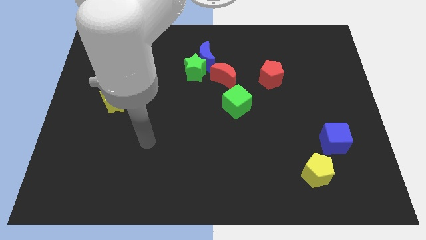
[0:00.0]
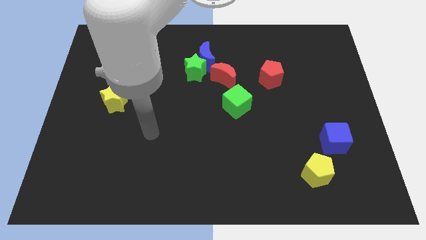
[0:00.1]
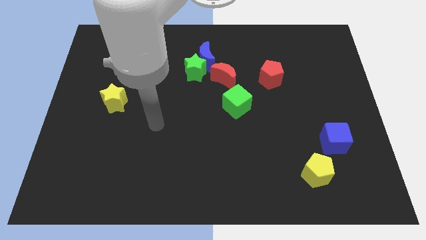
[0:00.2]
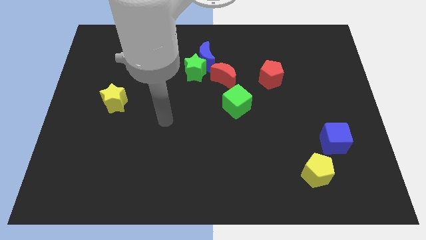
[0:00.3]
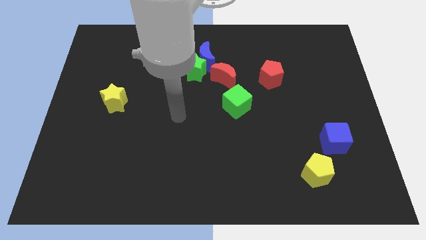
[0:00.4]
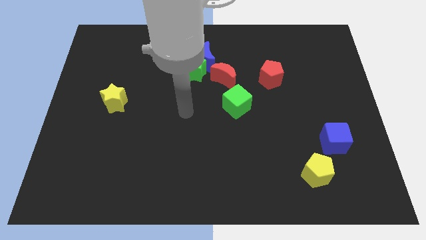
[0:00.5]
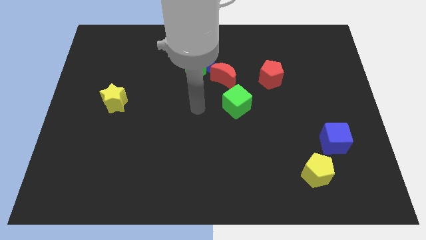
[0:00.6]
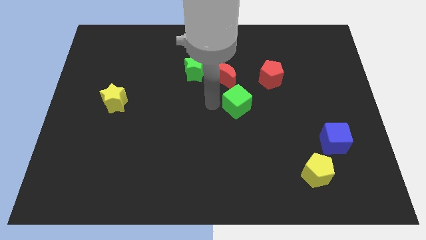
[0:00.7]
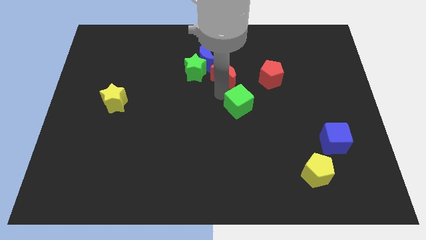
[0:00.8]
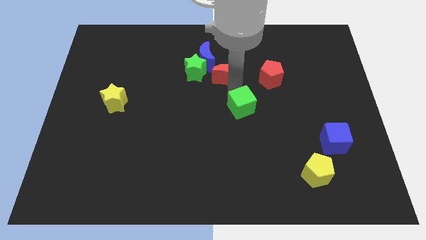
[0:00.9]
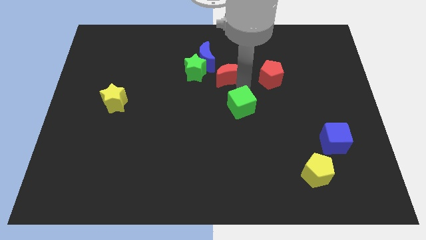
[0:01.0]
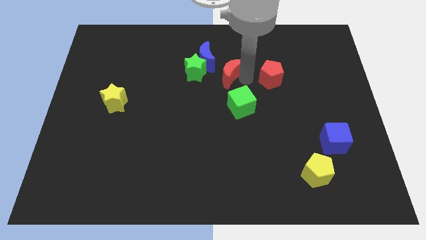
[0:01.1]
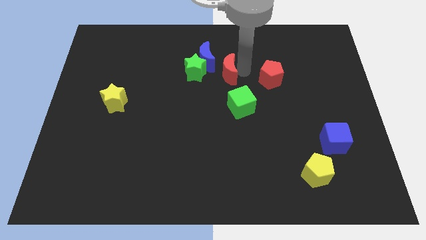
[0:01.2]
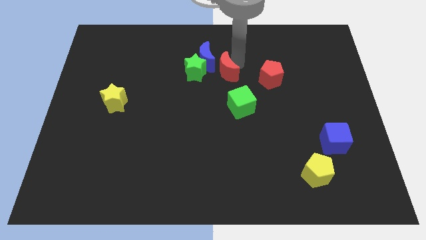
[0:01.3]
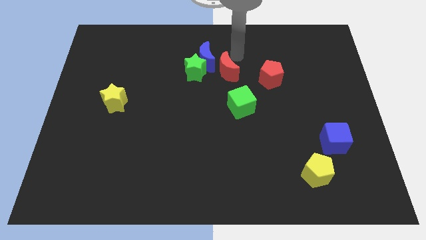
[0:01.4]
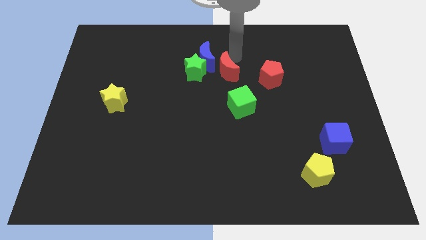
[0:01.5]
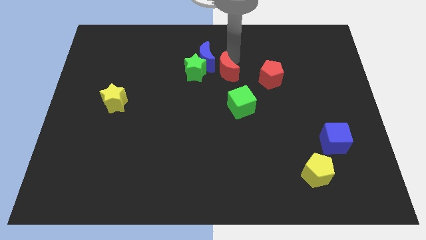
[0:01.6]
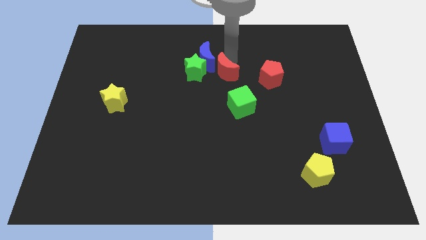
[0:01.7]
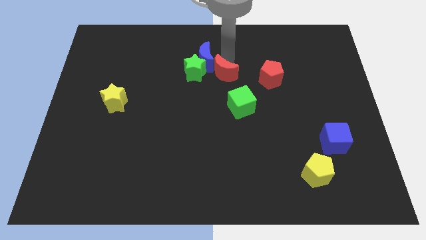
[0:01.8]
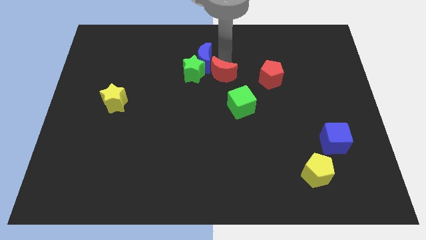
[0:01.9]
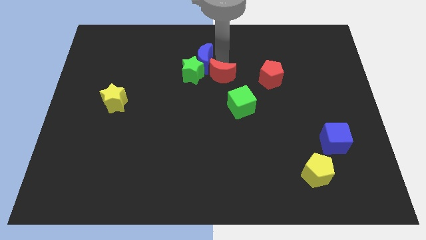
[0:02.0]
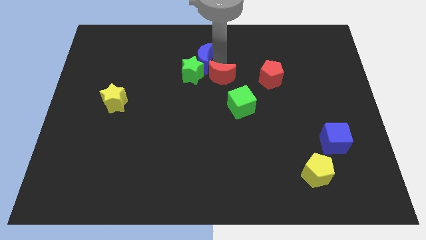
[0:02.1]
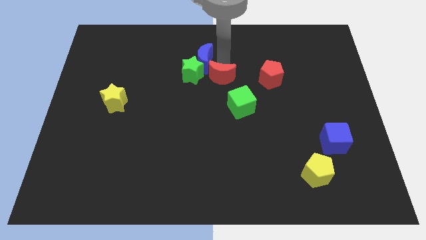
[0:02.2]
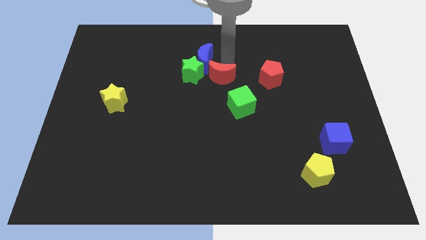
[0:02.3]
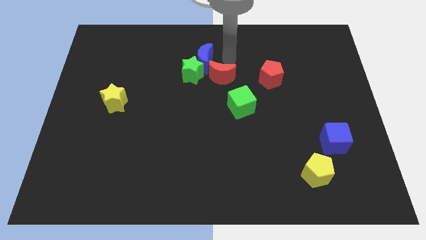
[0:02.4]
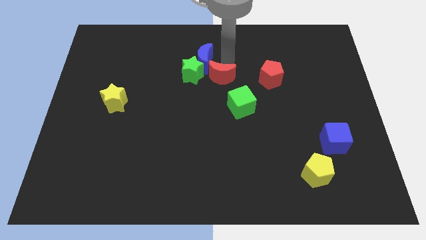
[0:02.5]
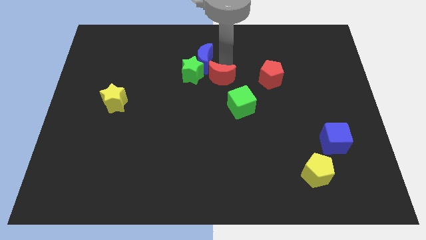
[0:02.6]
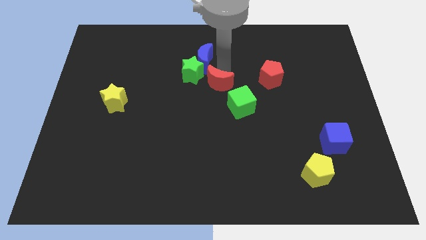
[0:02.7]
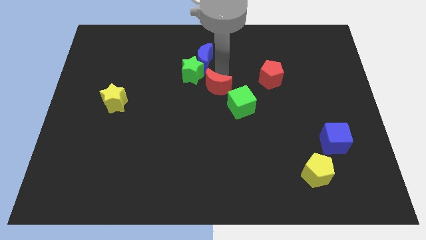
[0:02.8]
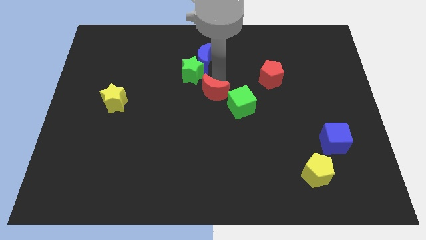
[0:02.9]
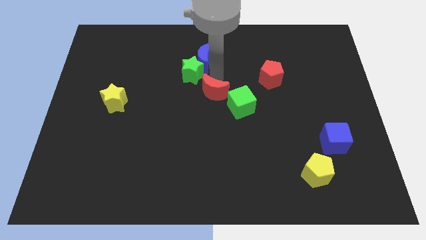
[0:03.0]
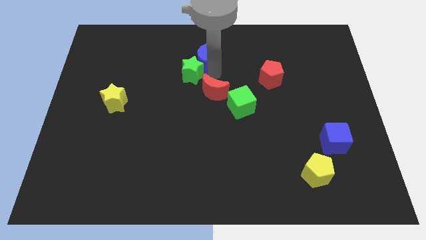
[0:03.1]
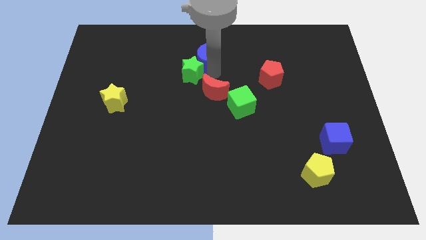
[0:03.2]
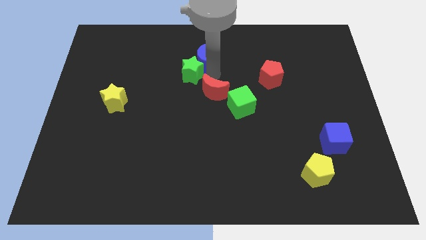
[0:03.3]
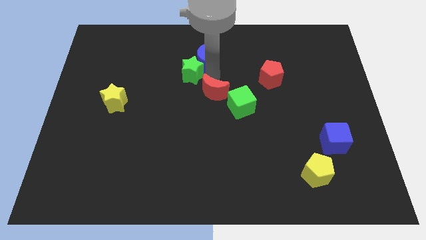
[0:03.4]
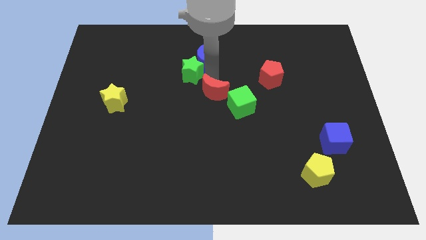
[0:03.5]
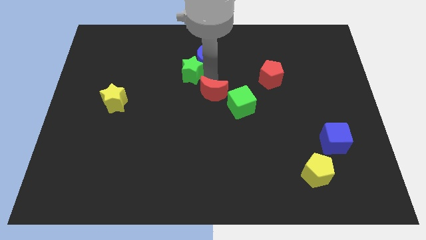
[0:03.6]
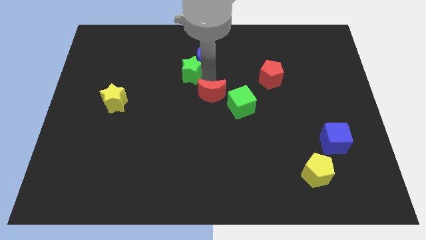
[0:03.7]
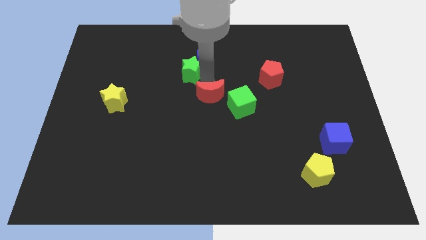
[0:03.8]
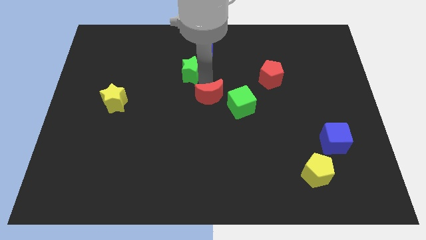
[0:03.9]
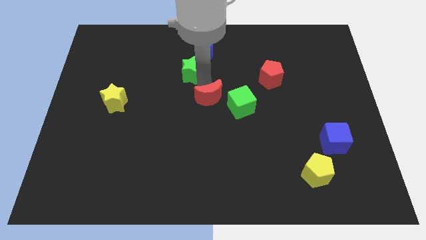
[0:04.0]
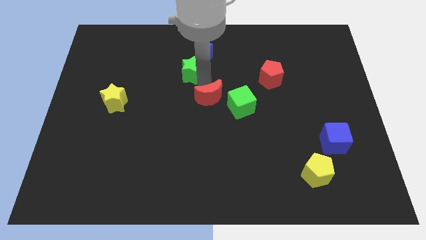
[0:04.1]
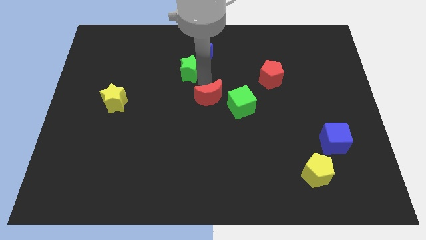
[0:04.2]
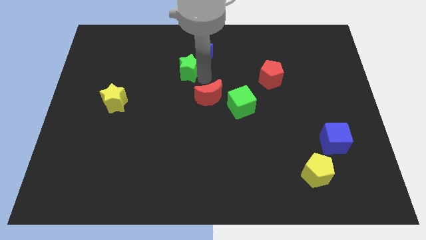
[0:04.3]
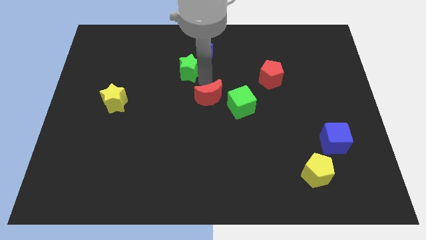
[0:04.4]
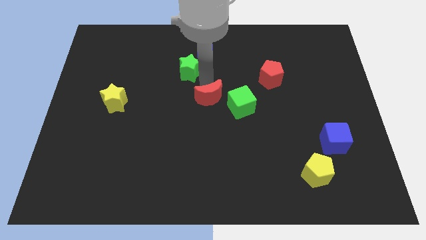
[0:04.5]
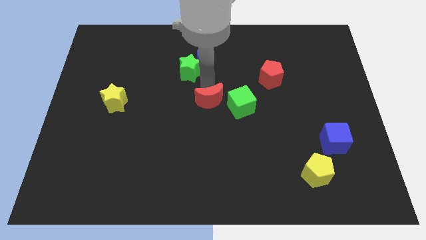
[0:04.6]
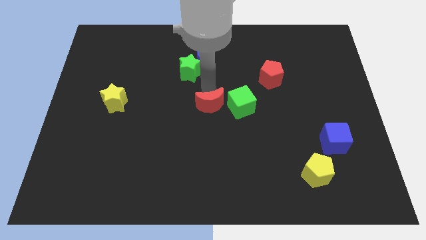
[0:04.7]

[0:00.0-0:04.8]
slightly push the red moon down

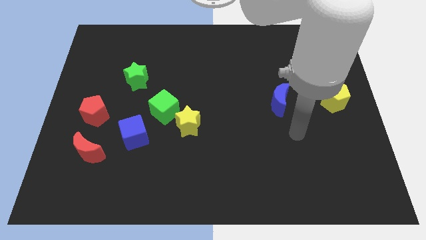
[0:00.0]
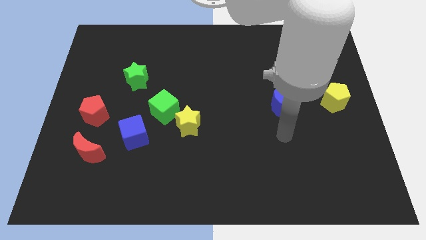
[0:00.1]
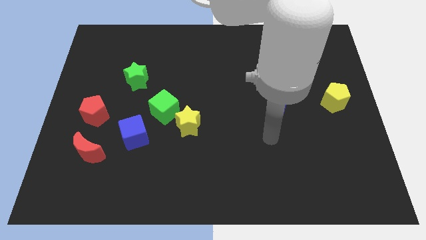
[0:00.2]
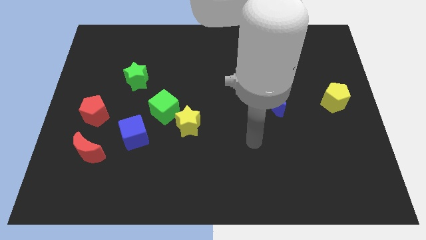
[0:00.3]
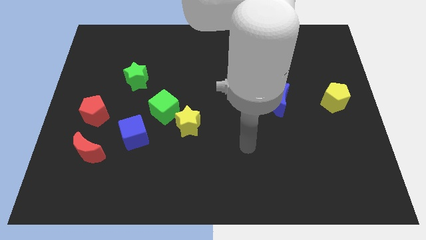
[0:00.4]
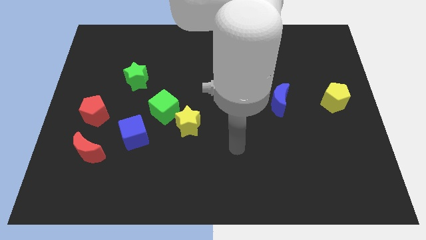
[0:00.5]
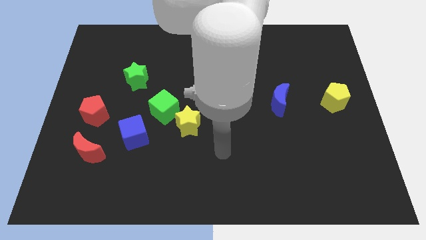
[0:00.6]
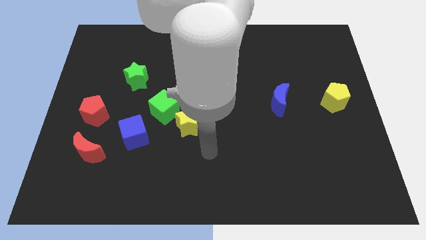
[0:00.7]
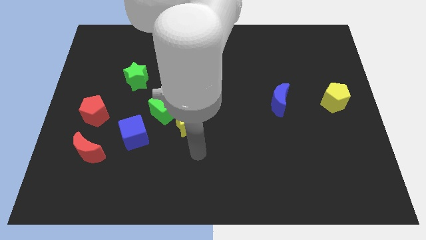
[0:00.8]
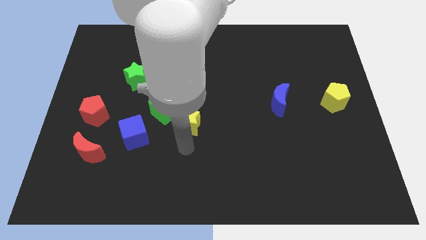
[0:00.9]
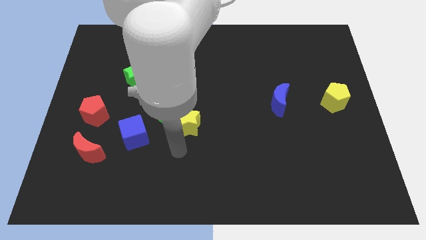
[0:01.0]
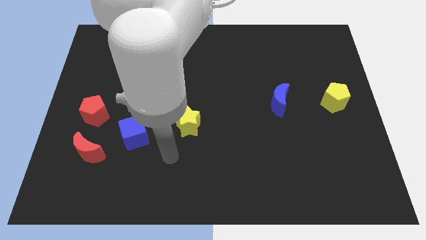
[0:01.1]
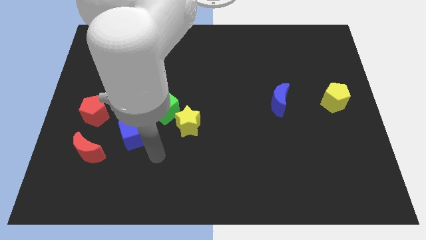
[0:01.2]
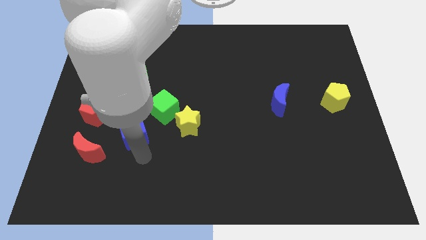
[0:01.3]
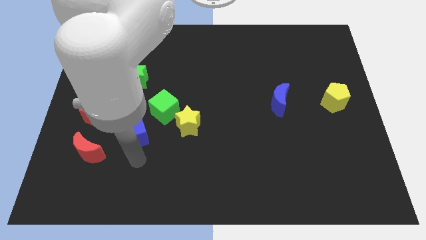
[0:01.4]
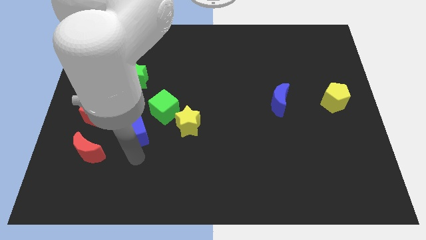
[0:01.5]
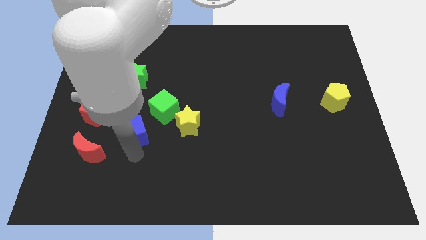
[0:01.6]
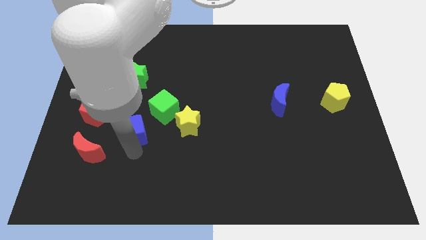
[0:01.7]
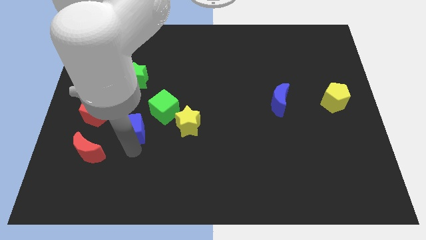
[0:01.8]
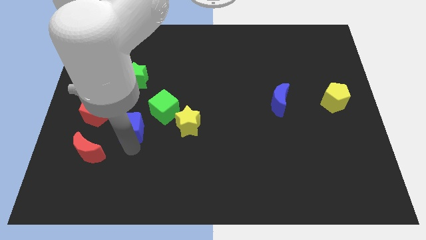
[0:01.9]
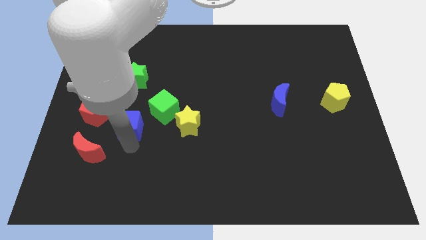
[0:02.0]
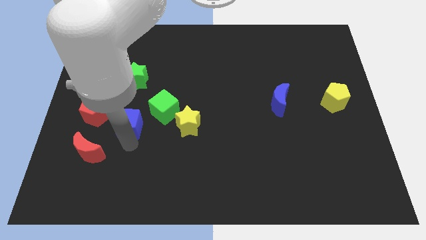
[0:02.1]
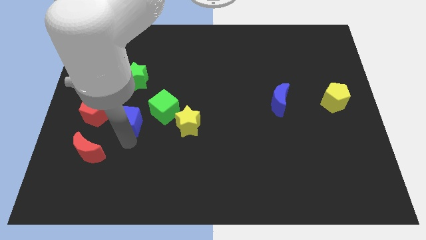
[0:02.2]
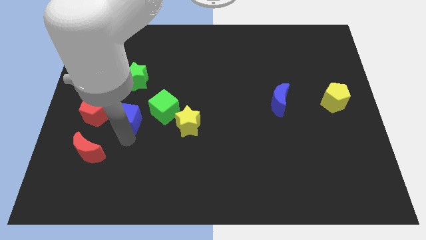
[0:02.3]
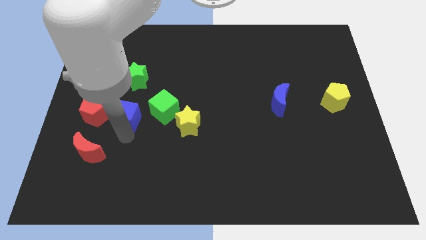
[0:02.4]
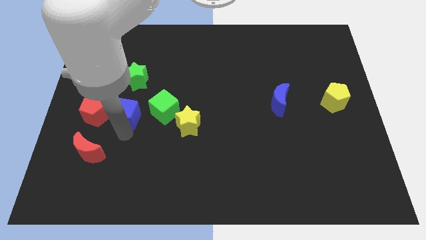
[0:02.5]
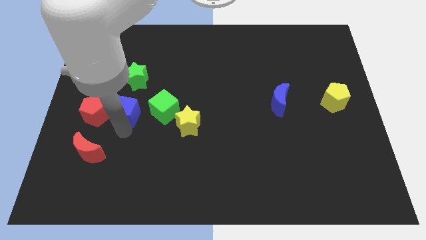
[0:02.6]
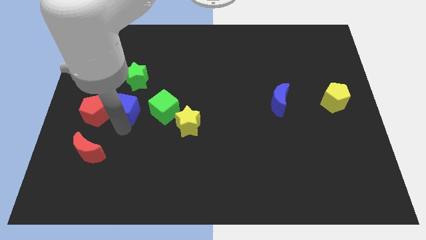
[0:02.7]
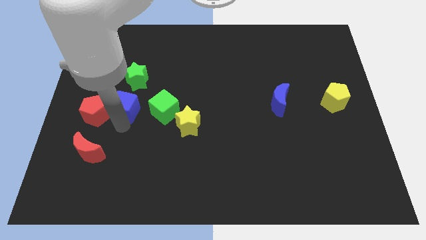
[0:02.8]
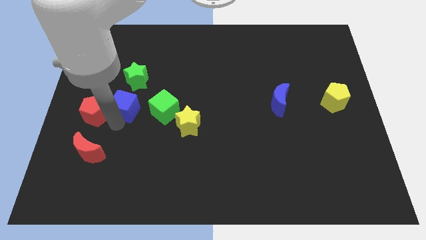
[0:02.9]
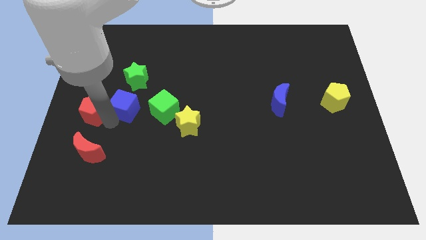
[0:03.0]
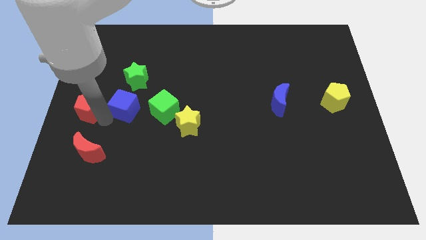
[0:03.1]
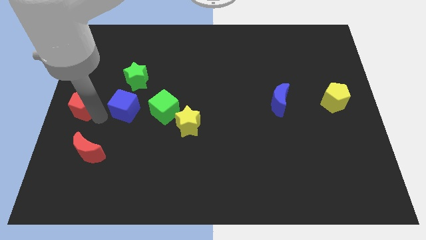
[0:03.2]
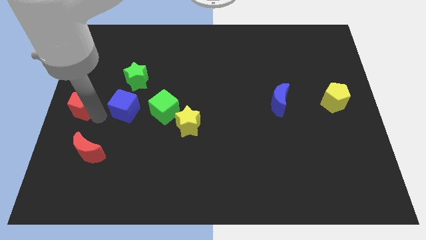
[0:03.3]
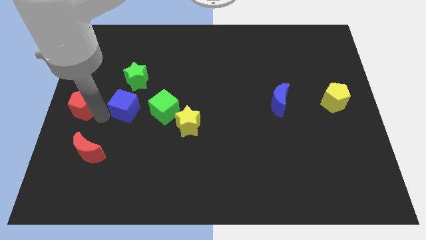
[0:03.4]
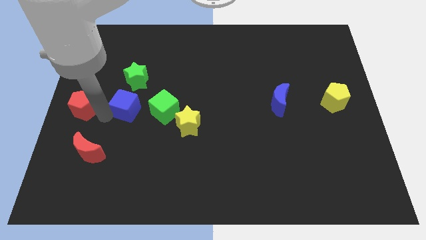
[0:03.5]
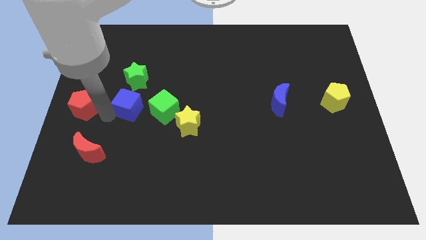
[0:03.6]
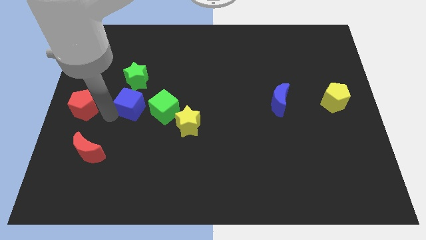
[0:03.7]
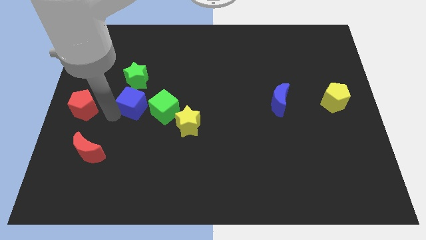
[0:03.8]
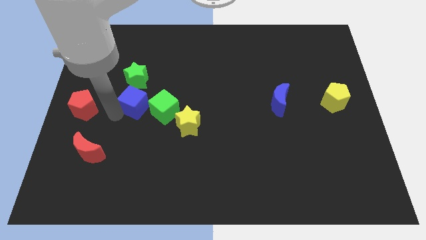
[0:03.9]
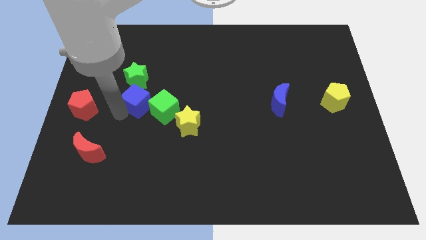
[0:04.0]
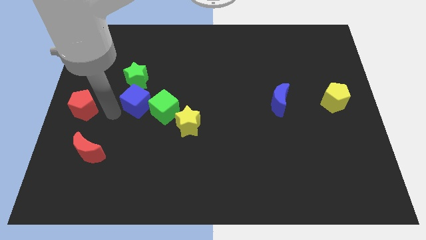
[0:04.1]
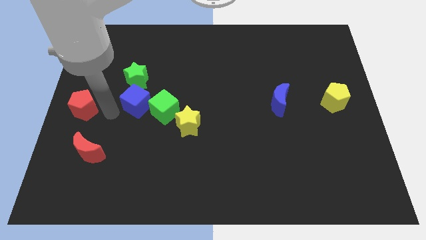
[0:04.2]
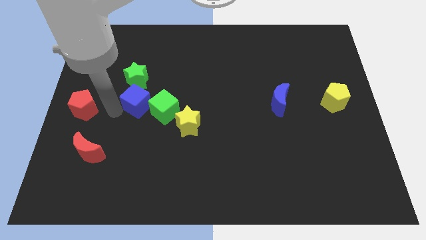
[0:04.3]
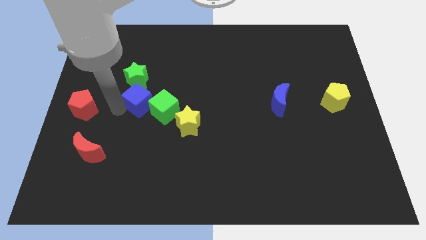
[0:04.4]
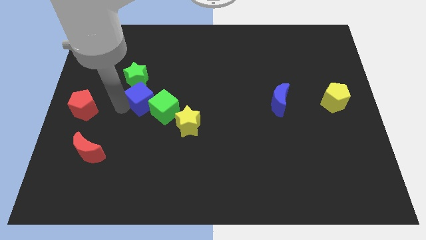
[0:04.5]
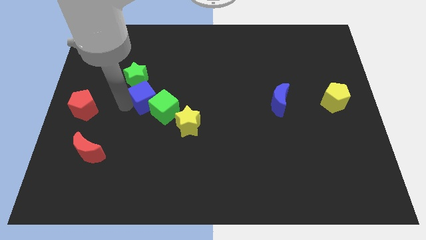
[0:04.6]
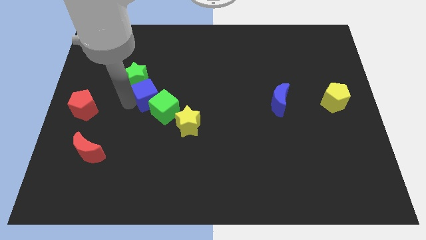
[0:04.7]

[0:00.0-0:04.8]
move the blue cube upwards and then right somewhat
